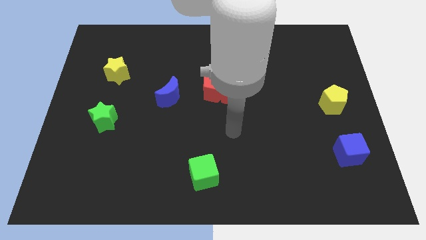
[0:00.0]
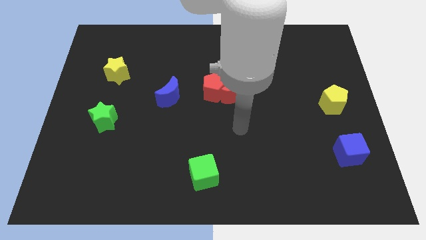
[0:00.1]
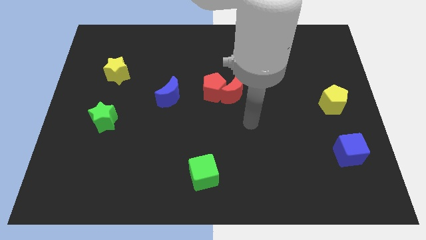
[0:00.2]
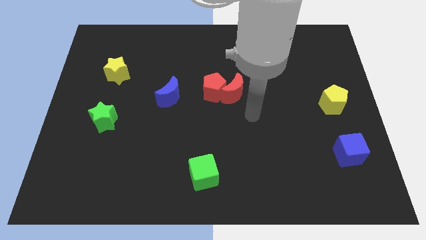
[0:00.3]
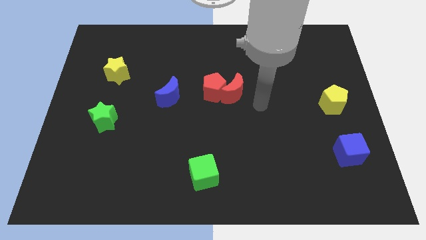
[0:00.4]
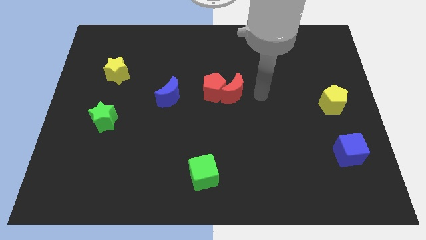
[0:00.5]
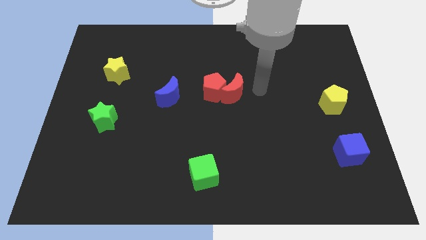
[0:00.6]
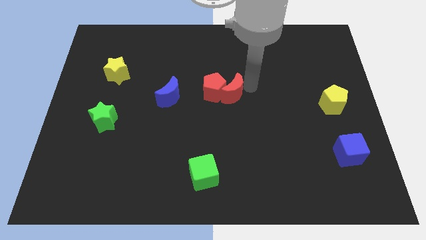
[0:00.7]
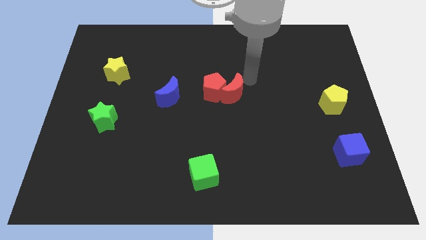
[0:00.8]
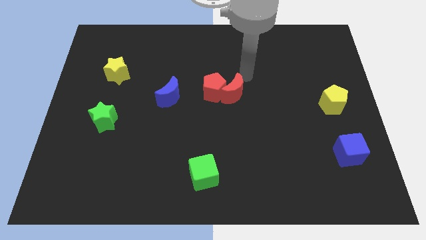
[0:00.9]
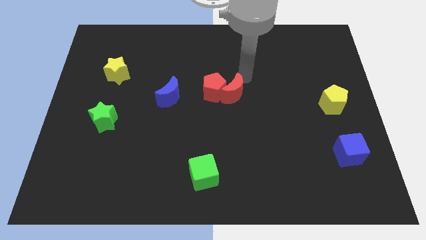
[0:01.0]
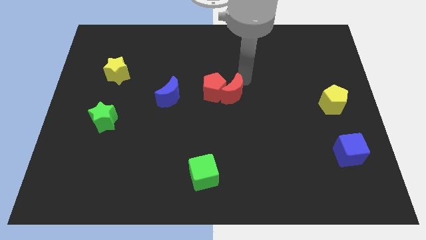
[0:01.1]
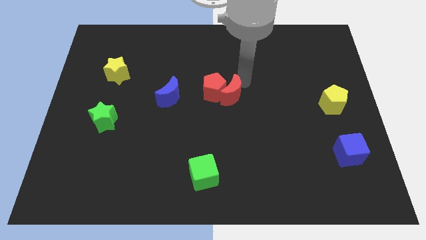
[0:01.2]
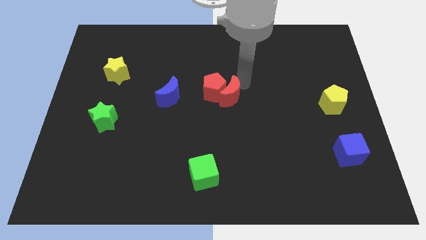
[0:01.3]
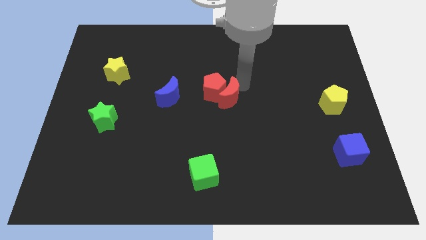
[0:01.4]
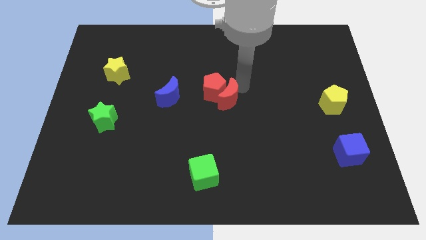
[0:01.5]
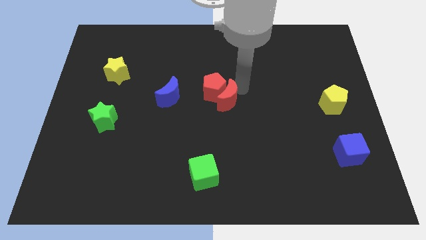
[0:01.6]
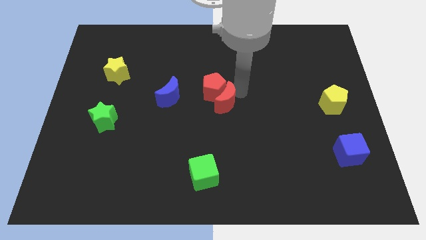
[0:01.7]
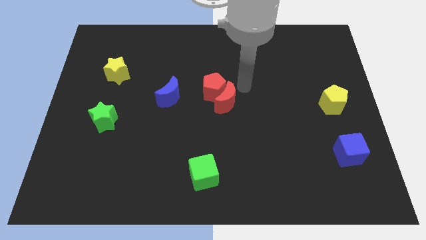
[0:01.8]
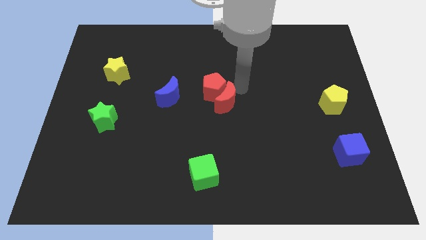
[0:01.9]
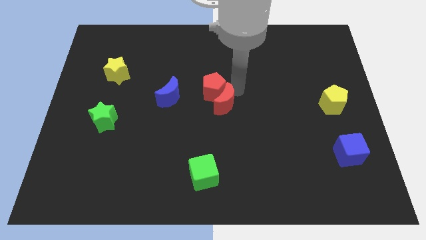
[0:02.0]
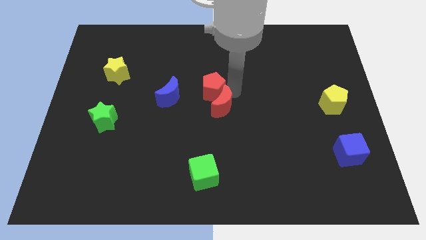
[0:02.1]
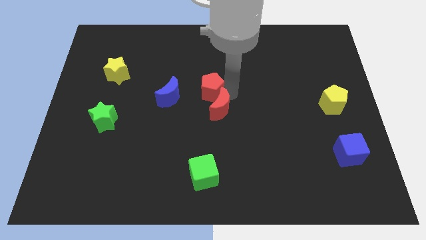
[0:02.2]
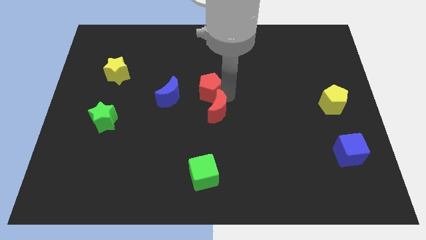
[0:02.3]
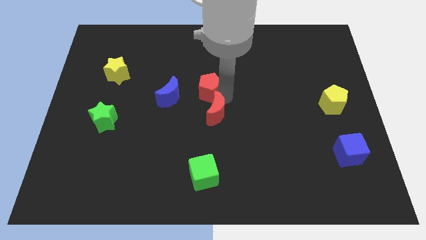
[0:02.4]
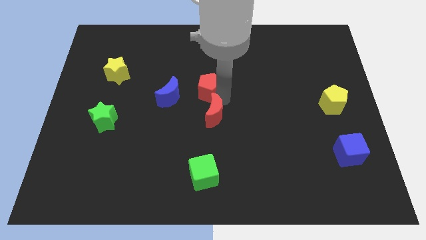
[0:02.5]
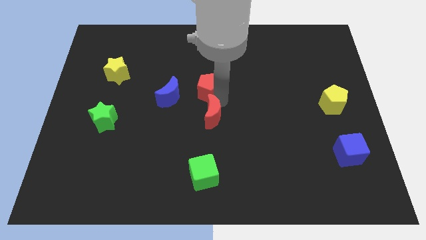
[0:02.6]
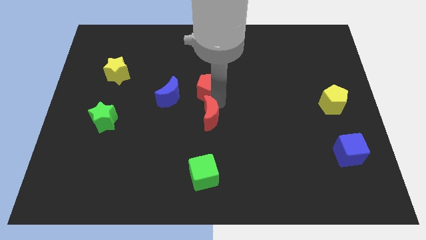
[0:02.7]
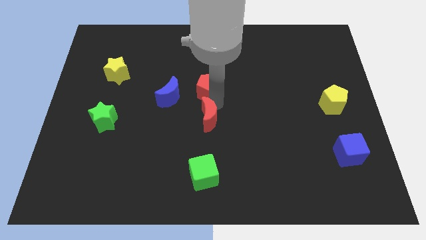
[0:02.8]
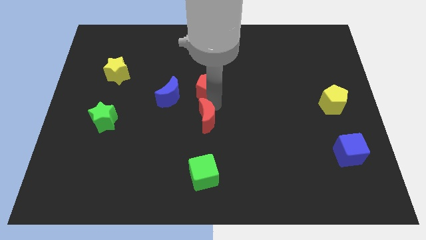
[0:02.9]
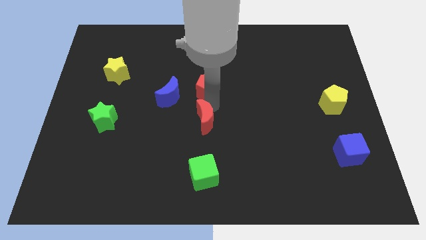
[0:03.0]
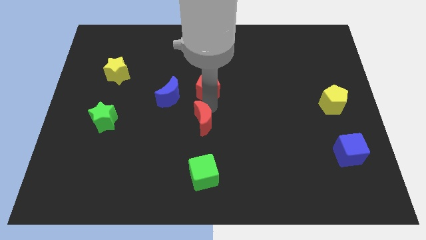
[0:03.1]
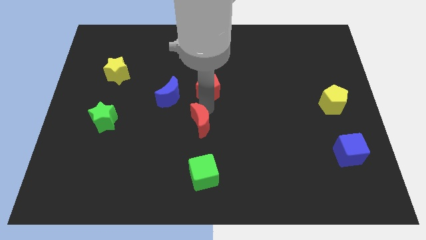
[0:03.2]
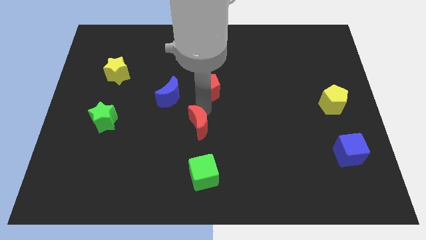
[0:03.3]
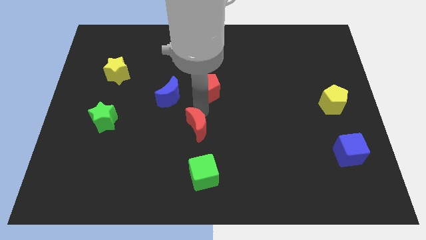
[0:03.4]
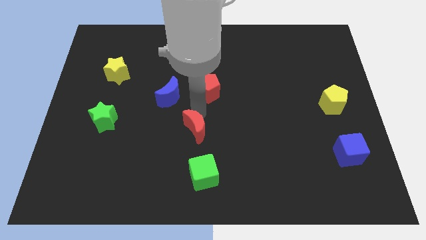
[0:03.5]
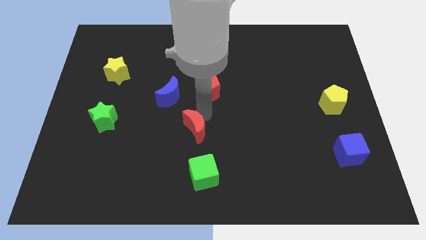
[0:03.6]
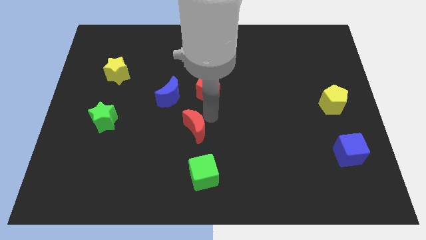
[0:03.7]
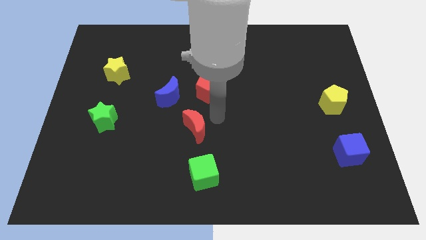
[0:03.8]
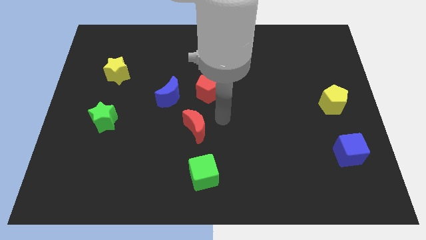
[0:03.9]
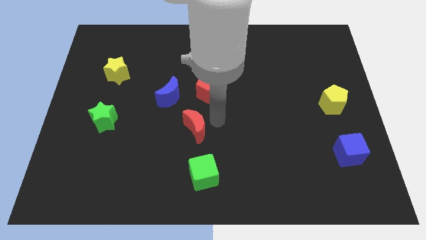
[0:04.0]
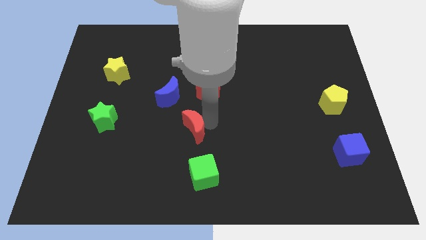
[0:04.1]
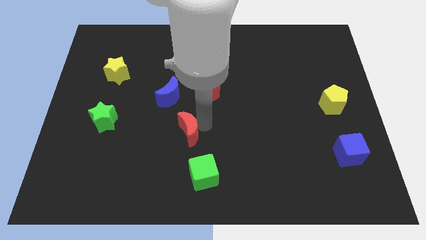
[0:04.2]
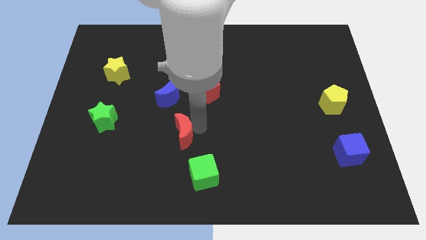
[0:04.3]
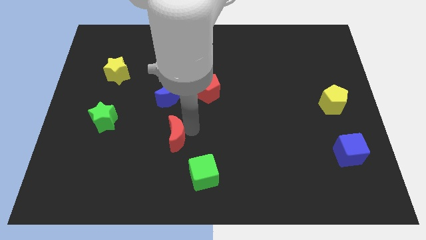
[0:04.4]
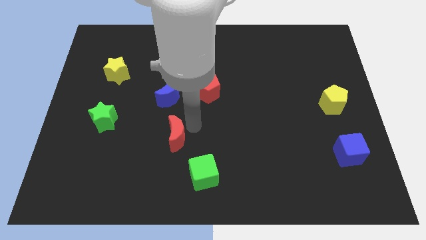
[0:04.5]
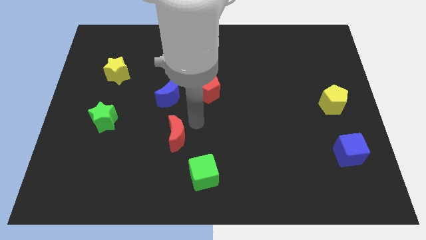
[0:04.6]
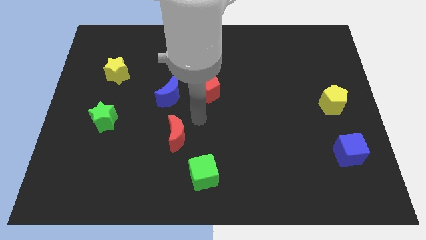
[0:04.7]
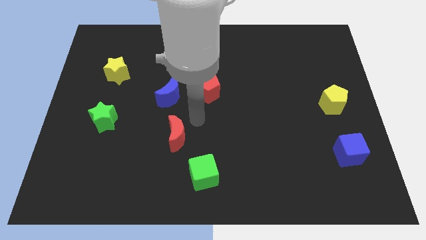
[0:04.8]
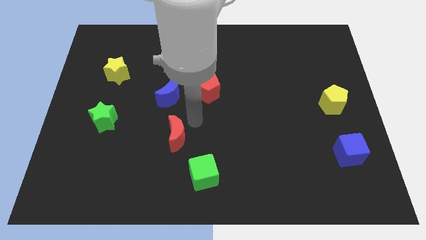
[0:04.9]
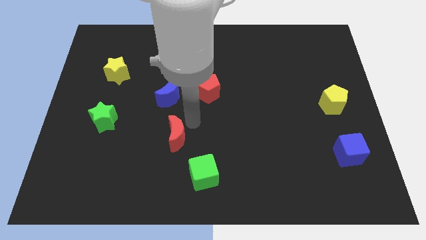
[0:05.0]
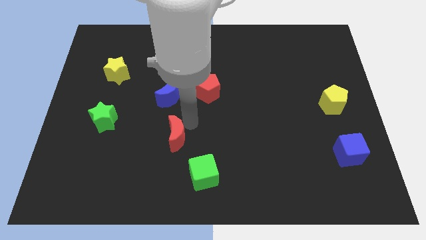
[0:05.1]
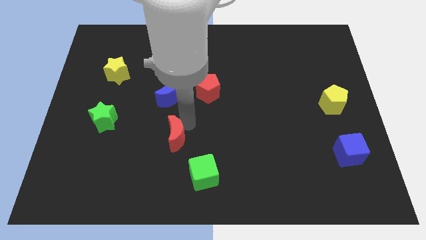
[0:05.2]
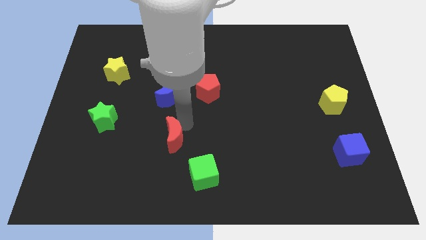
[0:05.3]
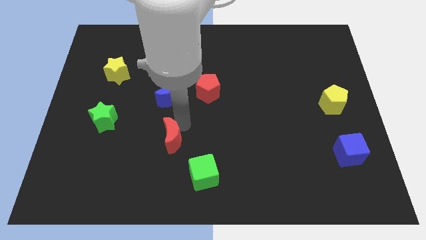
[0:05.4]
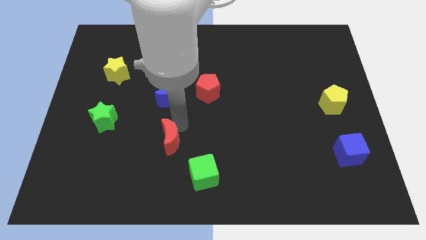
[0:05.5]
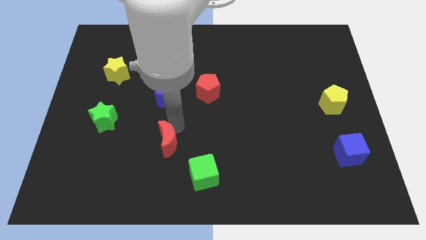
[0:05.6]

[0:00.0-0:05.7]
slide the red moon diagonally down and left

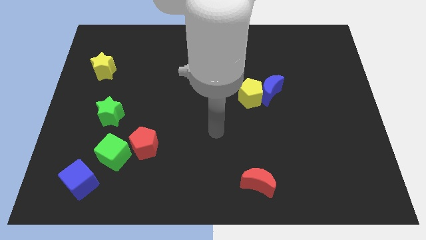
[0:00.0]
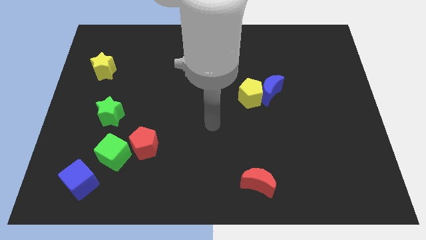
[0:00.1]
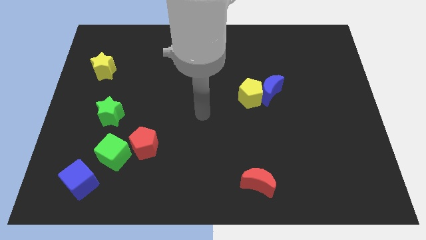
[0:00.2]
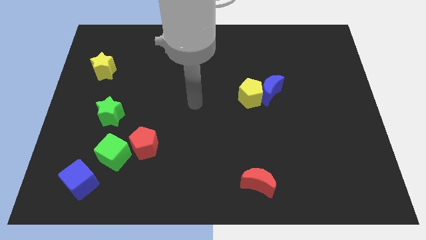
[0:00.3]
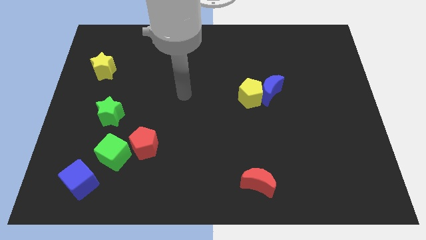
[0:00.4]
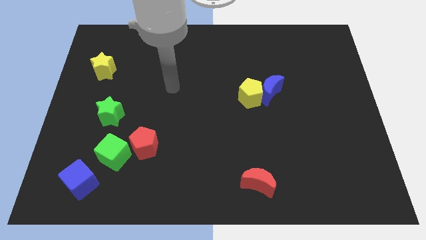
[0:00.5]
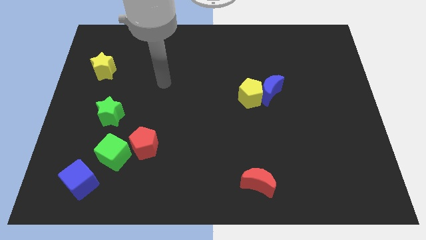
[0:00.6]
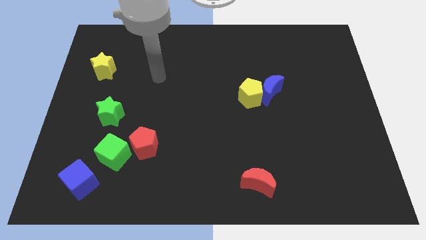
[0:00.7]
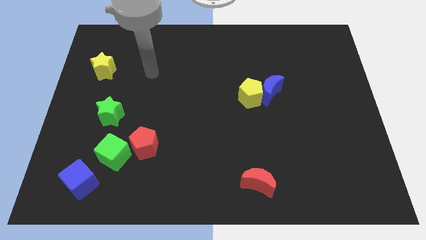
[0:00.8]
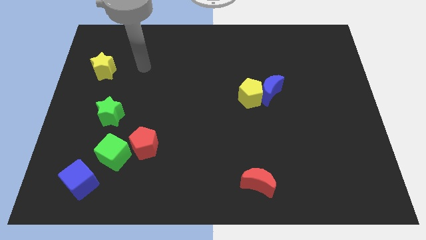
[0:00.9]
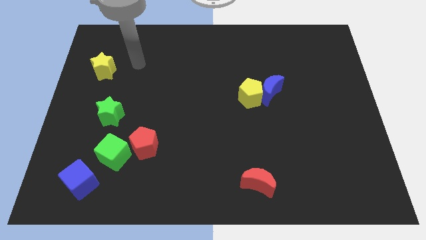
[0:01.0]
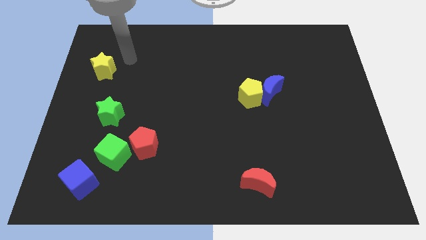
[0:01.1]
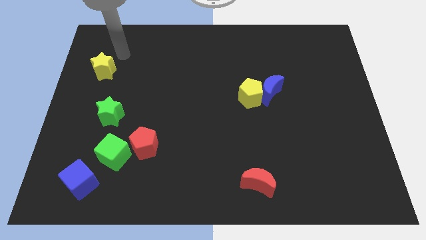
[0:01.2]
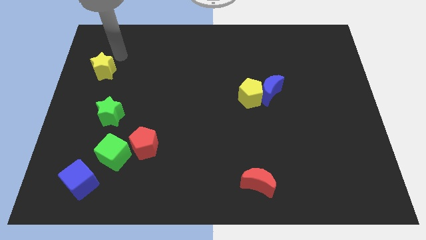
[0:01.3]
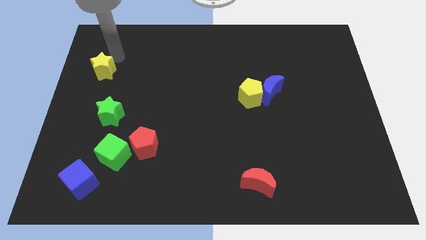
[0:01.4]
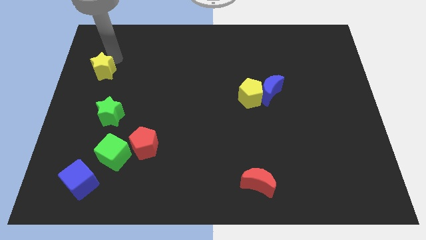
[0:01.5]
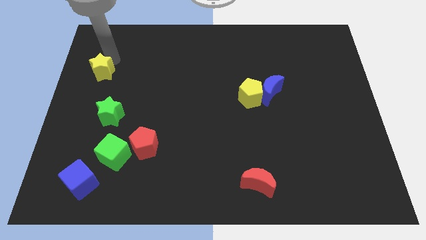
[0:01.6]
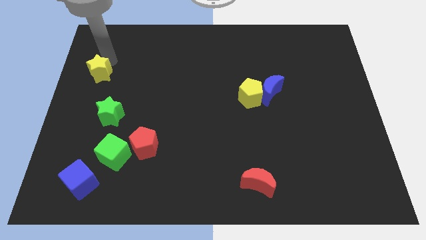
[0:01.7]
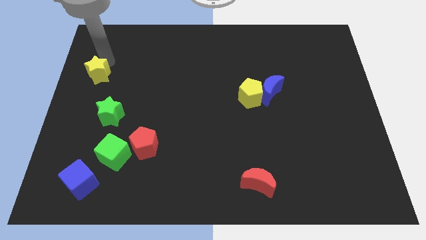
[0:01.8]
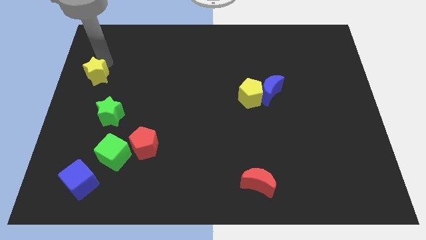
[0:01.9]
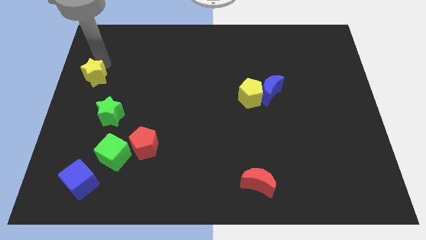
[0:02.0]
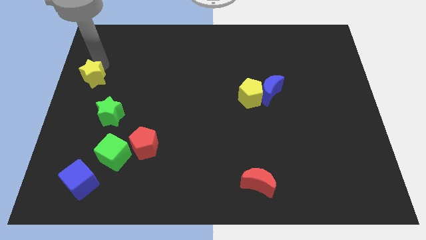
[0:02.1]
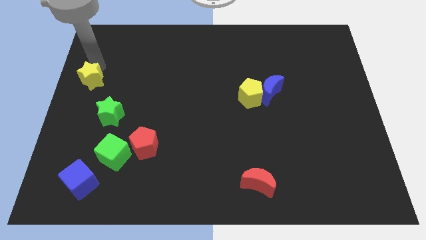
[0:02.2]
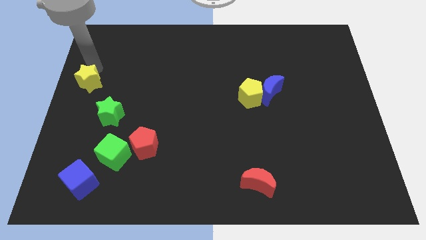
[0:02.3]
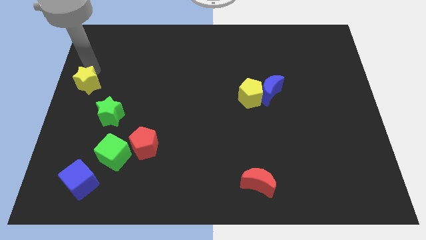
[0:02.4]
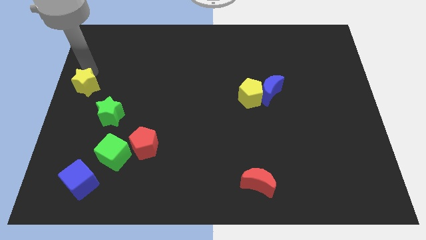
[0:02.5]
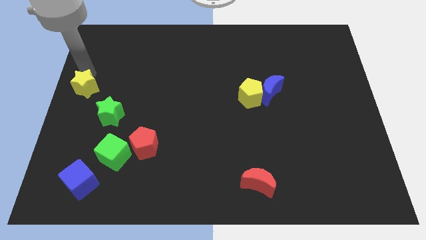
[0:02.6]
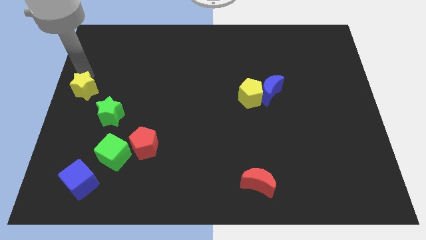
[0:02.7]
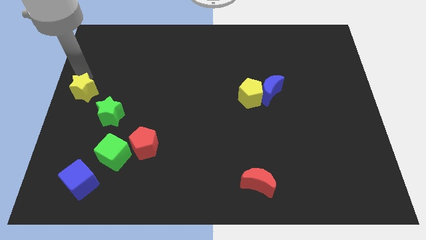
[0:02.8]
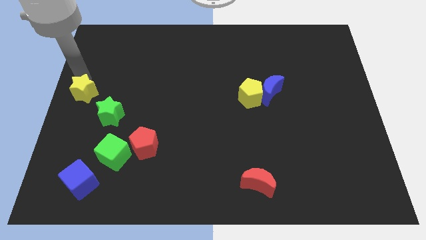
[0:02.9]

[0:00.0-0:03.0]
move the yellow star down slightly
